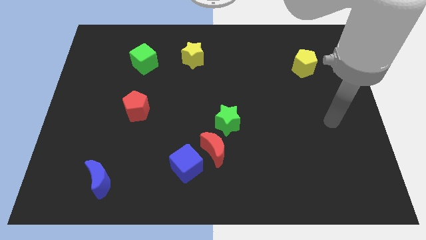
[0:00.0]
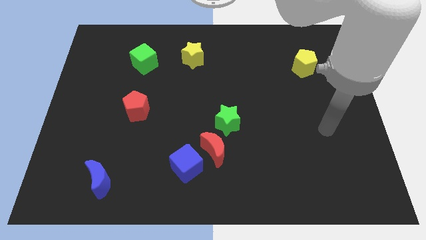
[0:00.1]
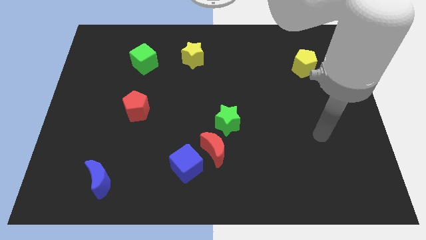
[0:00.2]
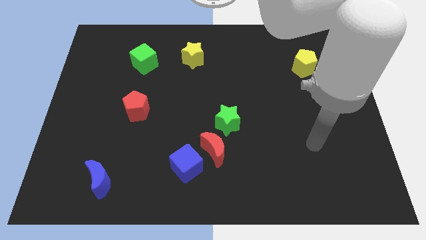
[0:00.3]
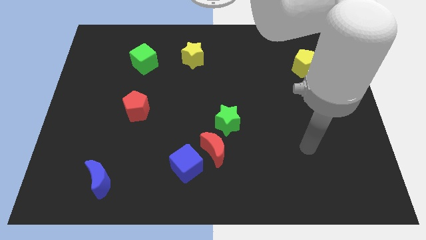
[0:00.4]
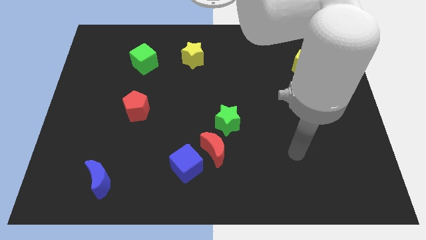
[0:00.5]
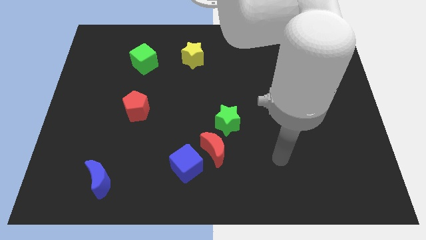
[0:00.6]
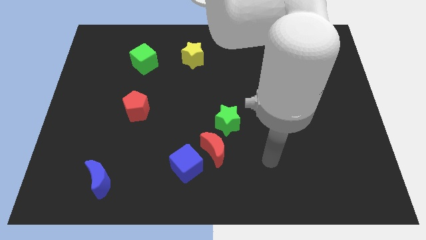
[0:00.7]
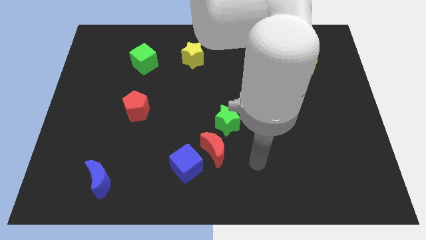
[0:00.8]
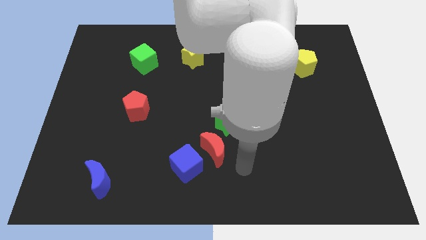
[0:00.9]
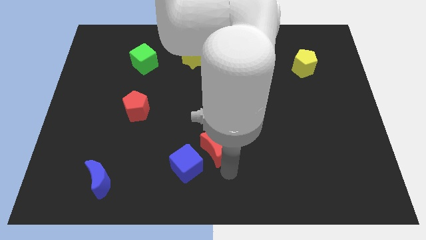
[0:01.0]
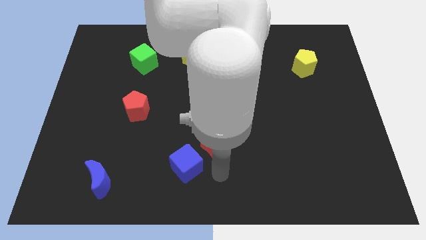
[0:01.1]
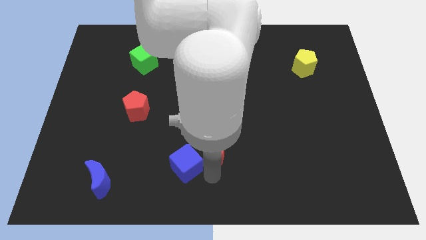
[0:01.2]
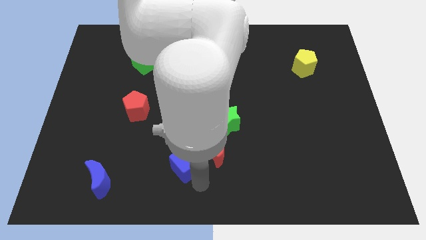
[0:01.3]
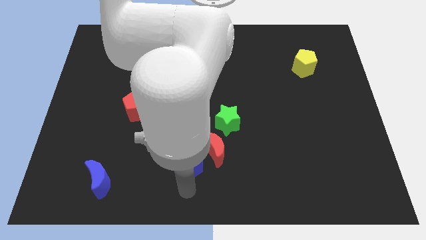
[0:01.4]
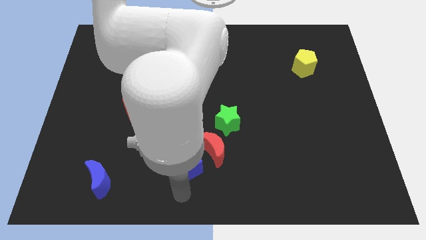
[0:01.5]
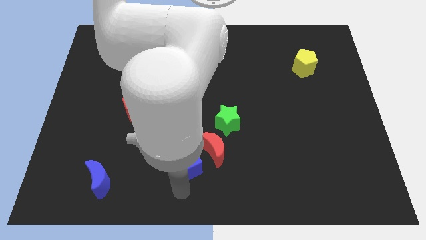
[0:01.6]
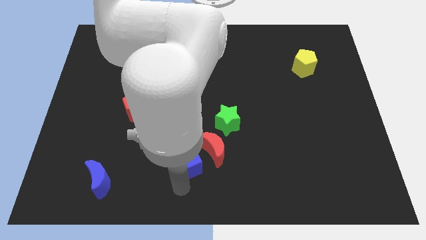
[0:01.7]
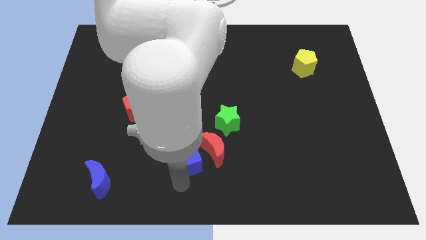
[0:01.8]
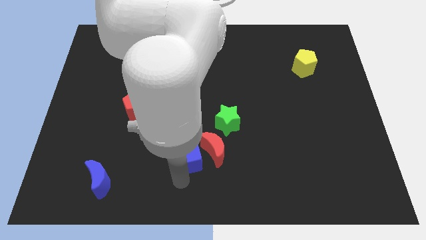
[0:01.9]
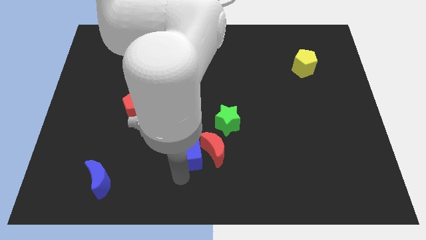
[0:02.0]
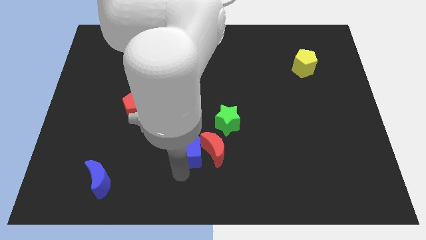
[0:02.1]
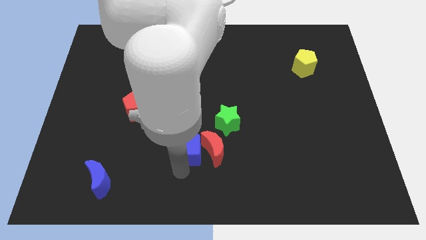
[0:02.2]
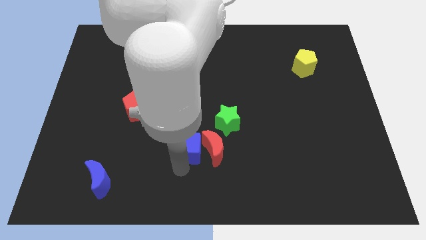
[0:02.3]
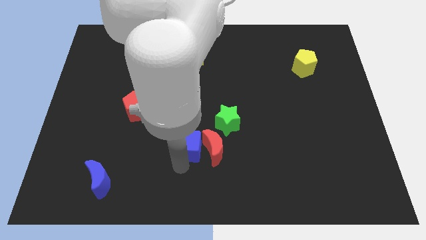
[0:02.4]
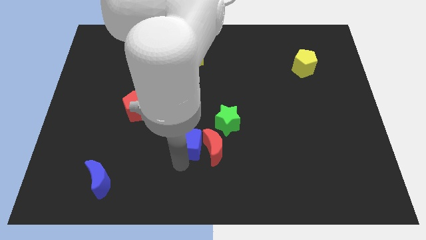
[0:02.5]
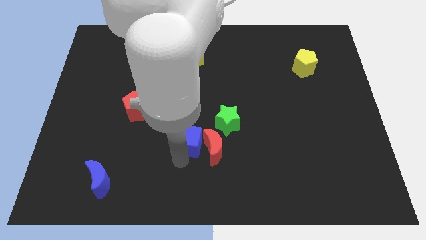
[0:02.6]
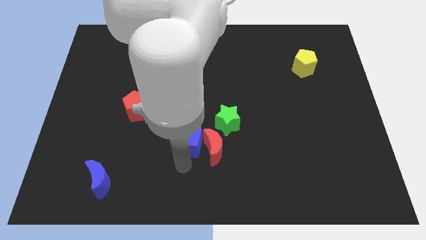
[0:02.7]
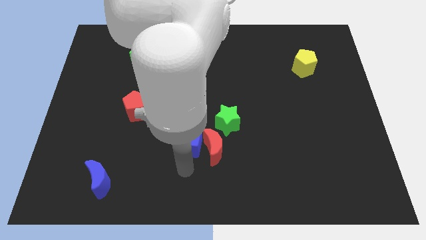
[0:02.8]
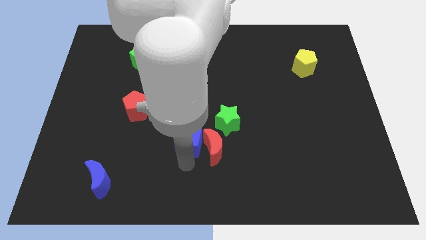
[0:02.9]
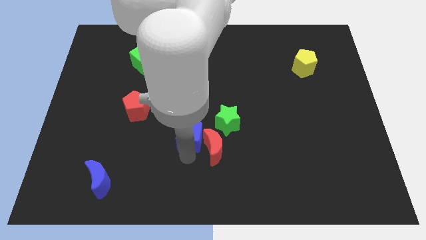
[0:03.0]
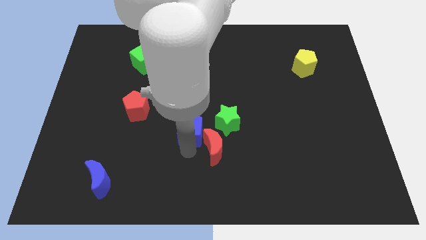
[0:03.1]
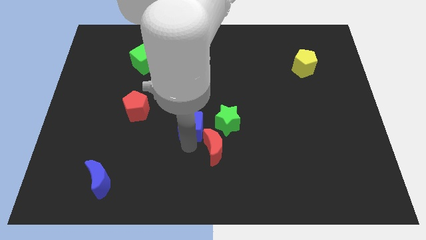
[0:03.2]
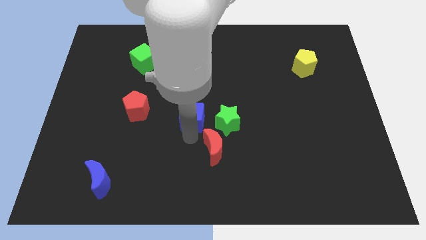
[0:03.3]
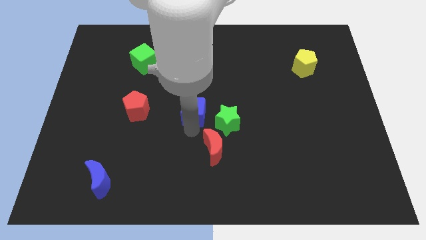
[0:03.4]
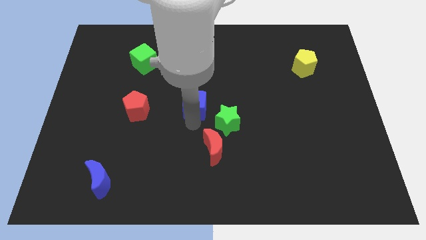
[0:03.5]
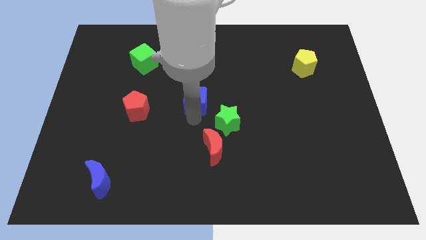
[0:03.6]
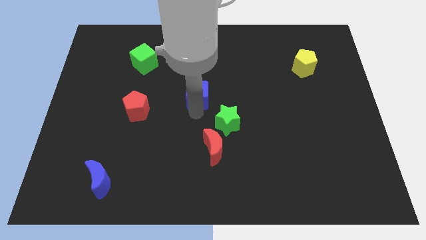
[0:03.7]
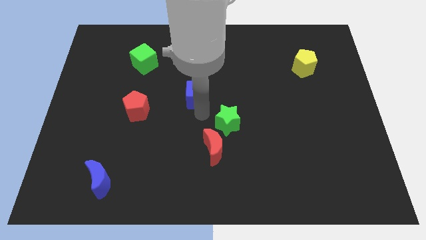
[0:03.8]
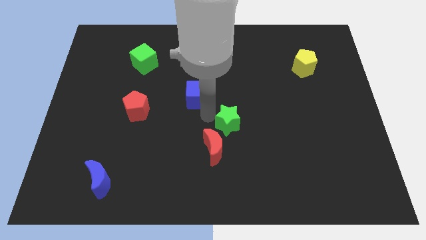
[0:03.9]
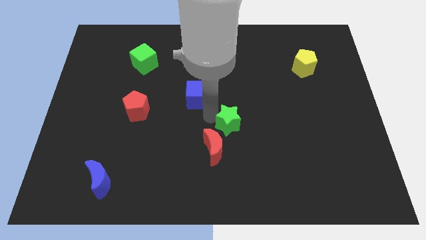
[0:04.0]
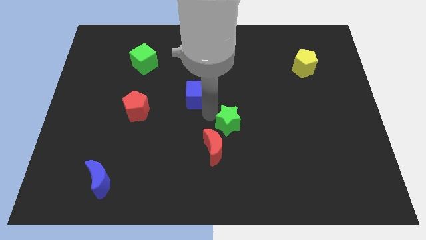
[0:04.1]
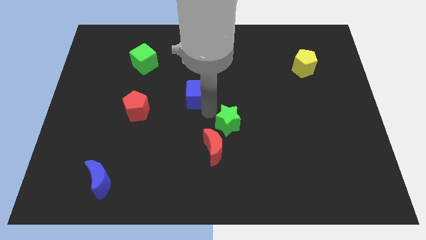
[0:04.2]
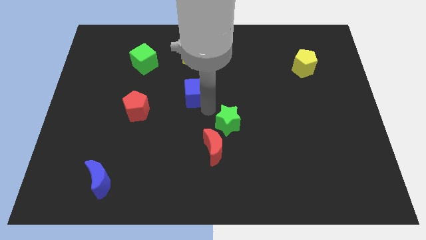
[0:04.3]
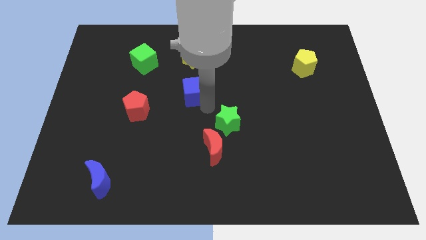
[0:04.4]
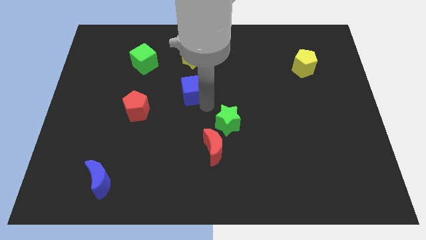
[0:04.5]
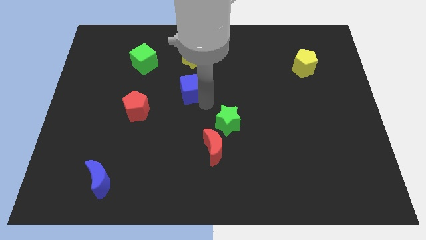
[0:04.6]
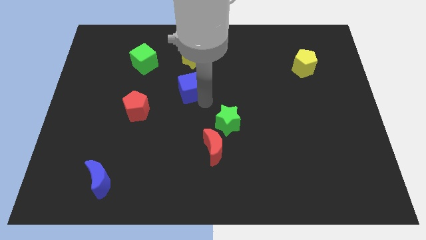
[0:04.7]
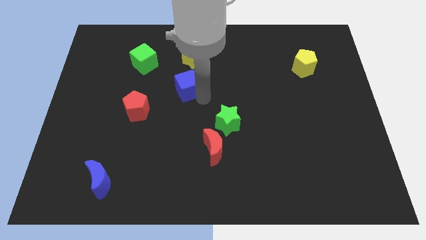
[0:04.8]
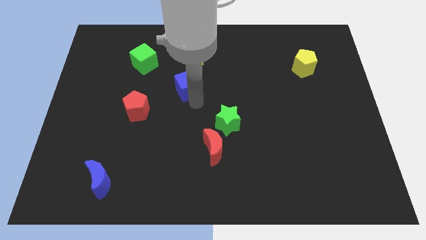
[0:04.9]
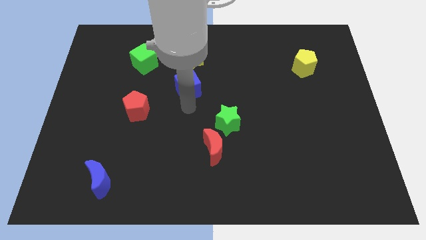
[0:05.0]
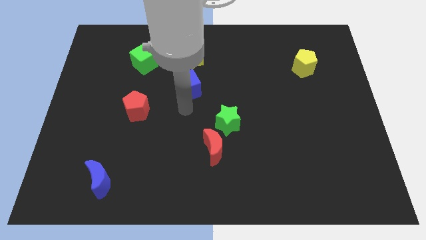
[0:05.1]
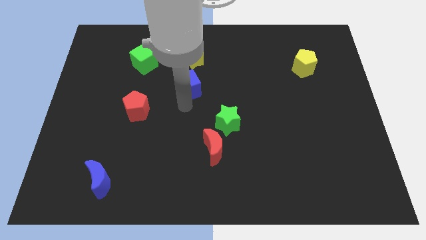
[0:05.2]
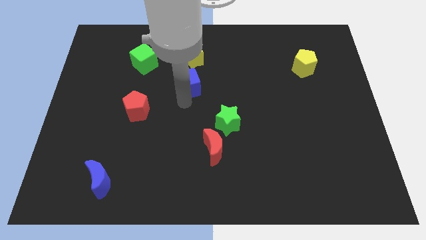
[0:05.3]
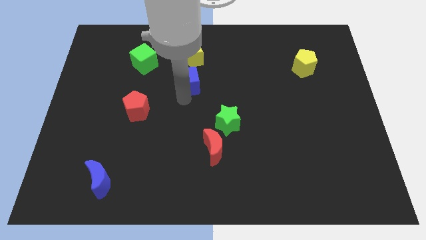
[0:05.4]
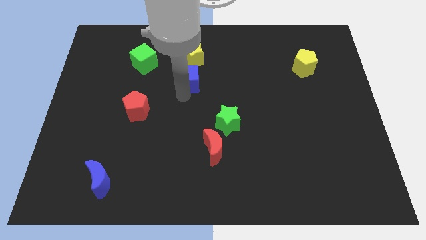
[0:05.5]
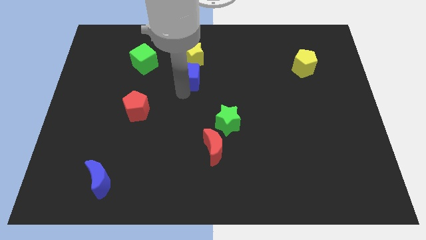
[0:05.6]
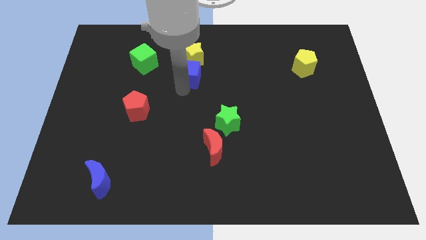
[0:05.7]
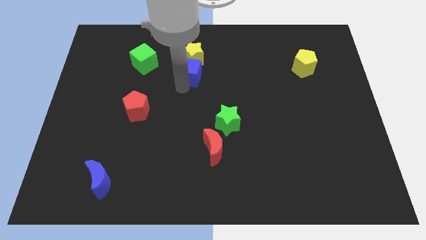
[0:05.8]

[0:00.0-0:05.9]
push the blue cube towards the yellow star

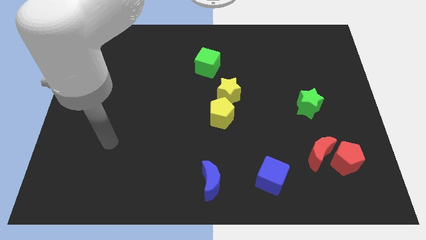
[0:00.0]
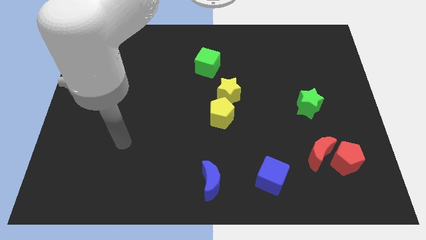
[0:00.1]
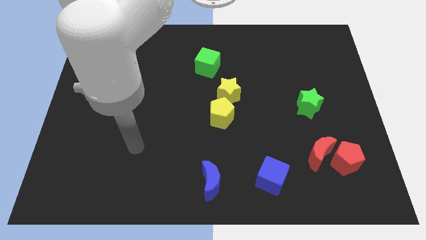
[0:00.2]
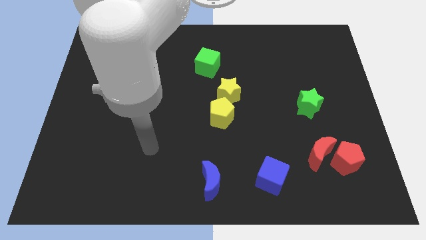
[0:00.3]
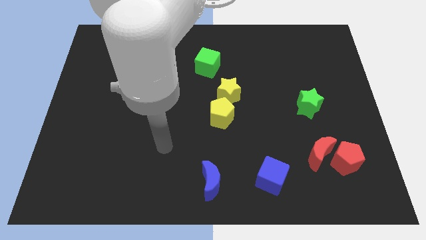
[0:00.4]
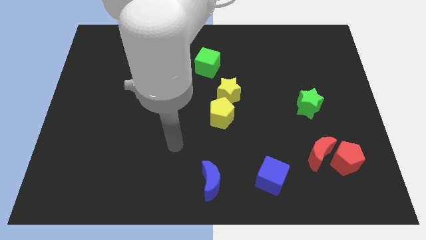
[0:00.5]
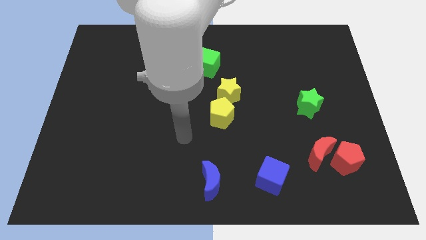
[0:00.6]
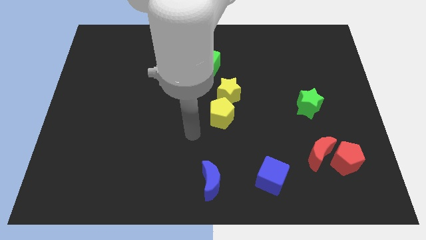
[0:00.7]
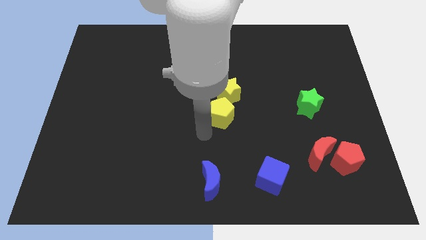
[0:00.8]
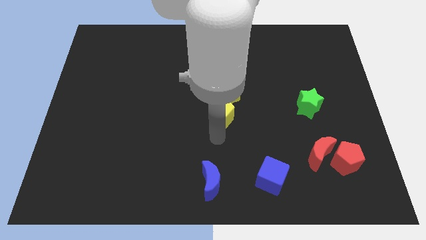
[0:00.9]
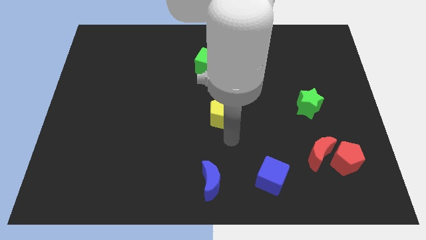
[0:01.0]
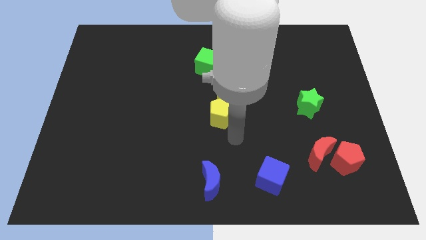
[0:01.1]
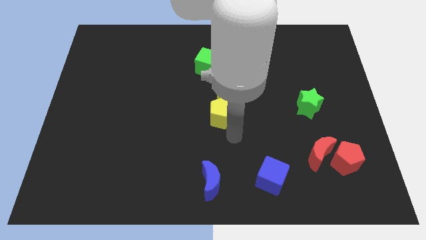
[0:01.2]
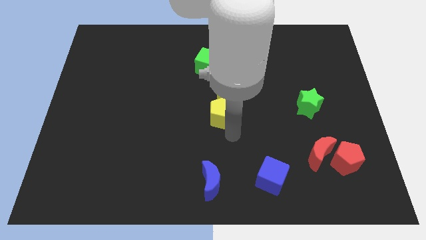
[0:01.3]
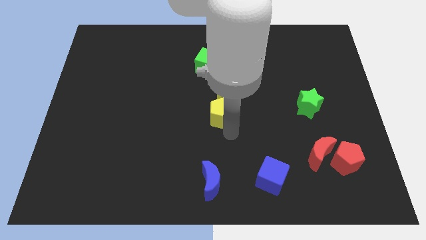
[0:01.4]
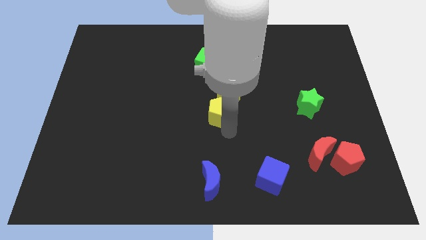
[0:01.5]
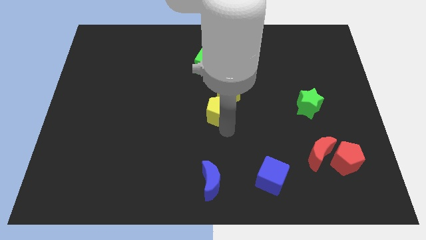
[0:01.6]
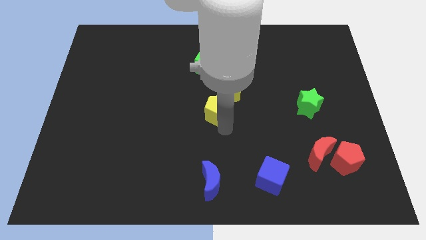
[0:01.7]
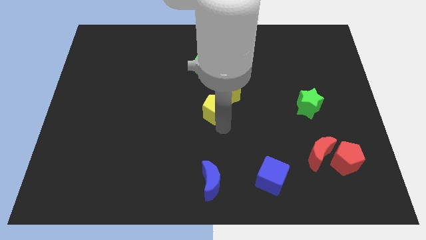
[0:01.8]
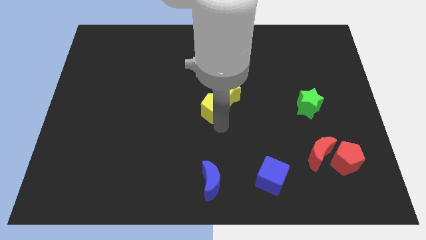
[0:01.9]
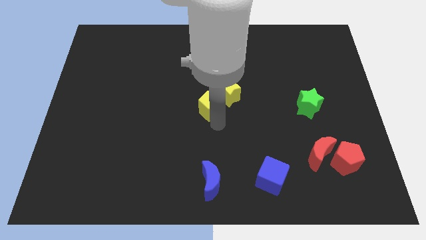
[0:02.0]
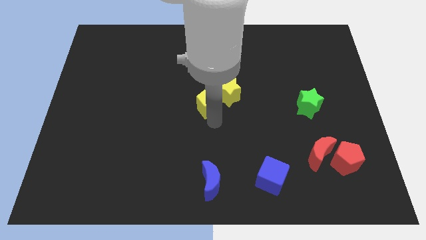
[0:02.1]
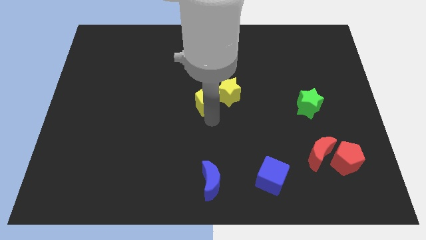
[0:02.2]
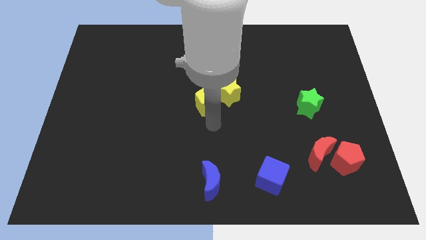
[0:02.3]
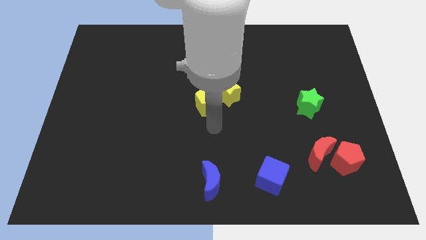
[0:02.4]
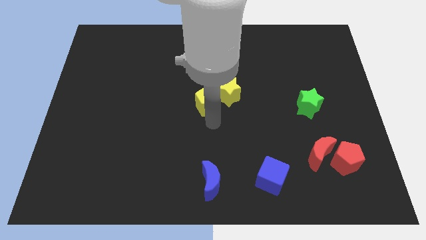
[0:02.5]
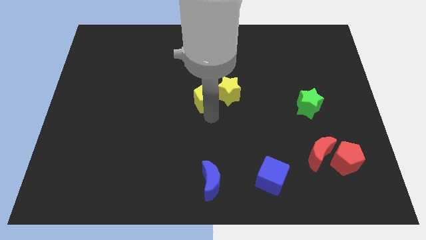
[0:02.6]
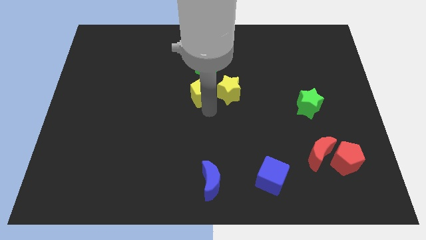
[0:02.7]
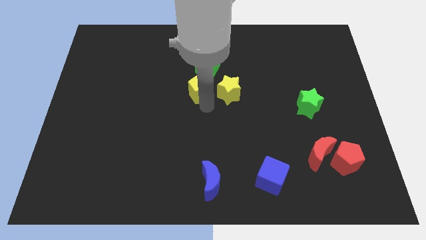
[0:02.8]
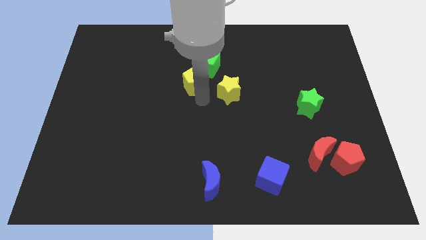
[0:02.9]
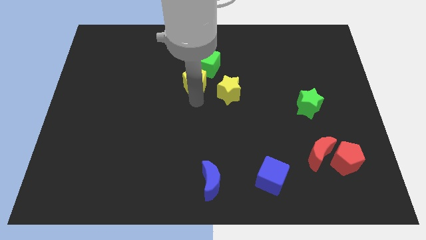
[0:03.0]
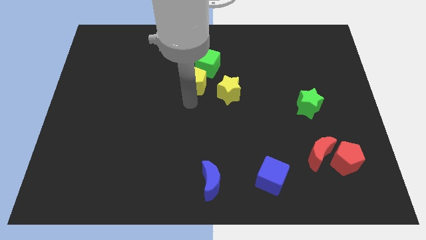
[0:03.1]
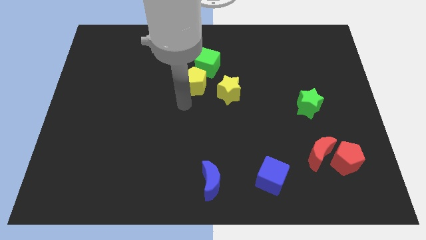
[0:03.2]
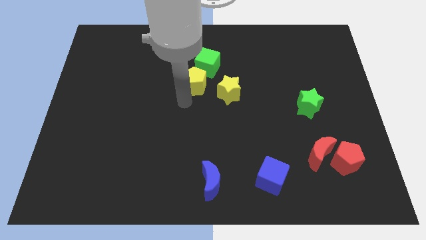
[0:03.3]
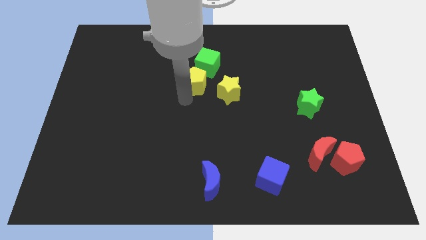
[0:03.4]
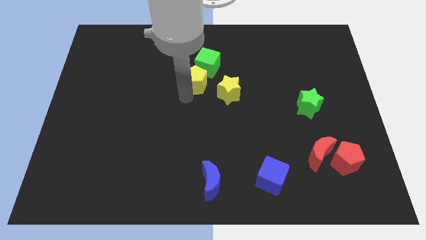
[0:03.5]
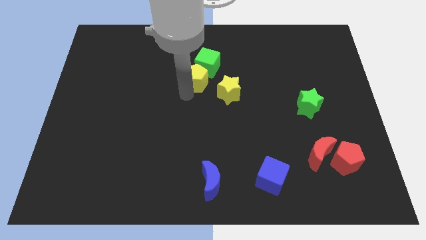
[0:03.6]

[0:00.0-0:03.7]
put the yellow pentagon next to the green cube
